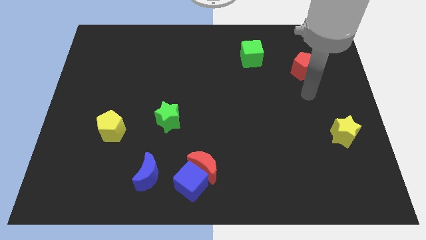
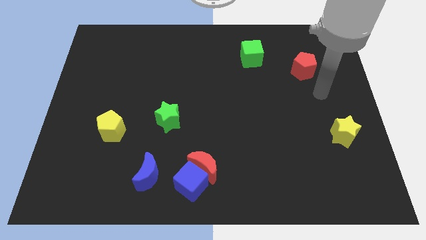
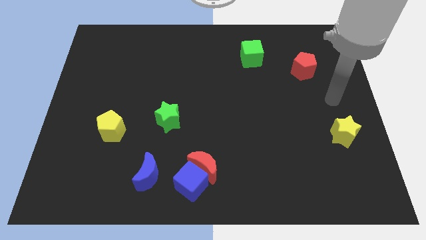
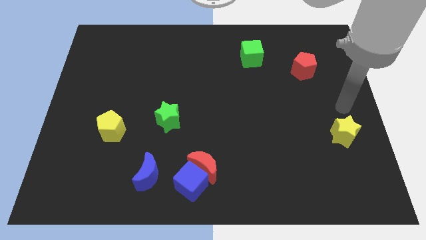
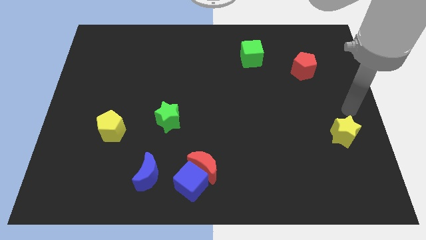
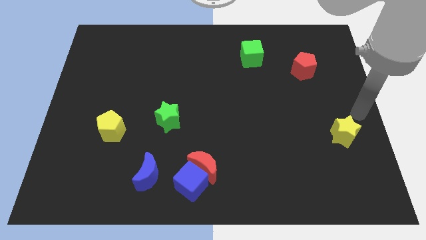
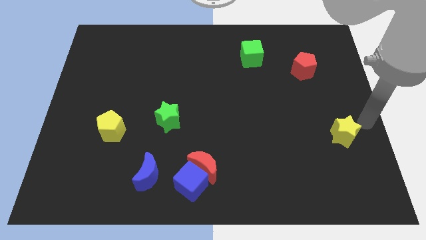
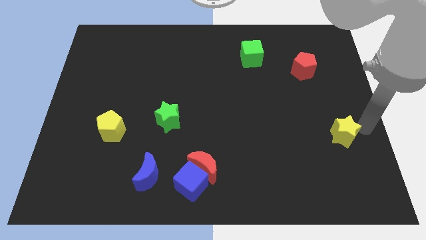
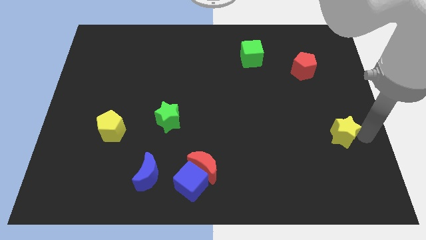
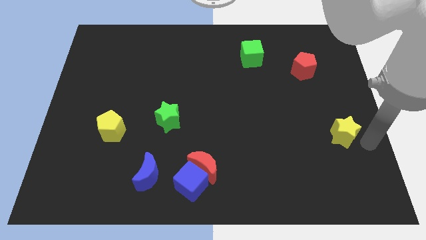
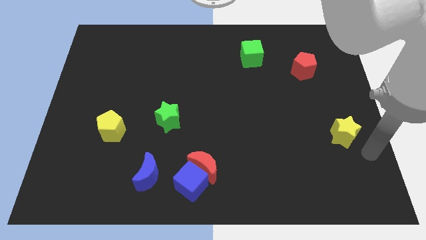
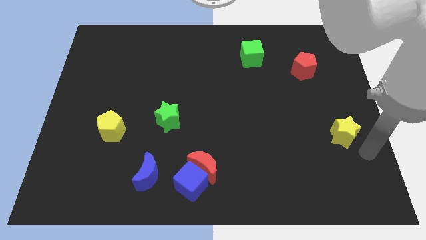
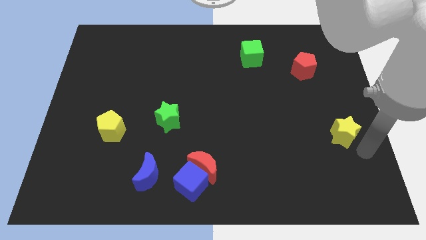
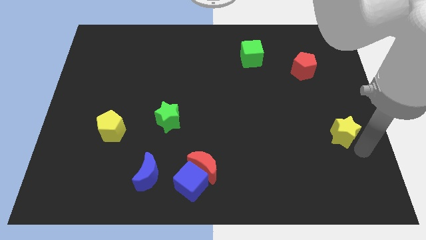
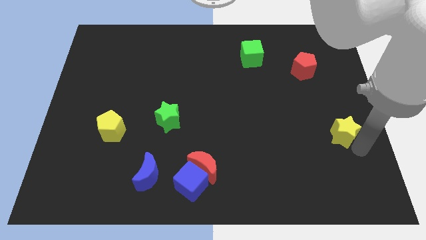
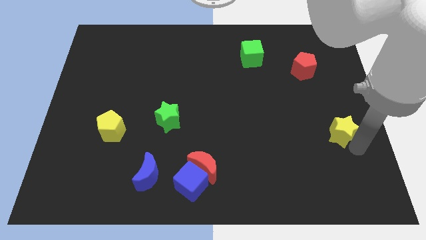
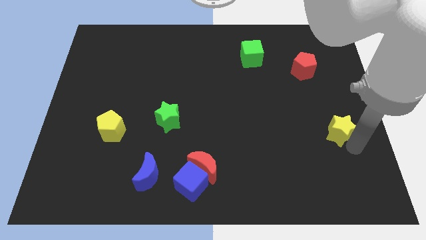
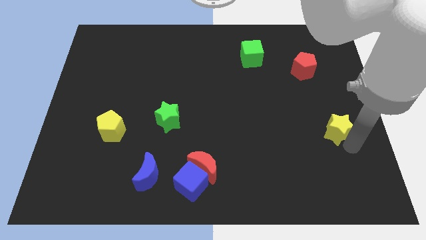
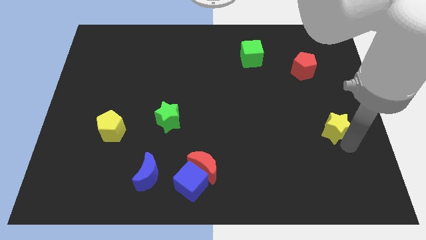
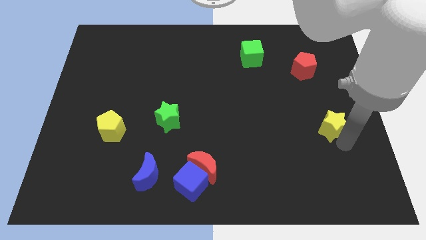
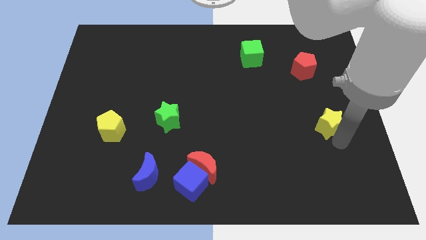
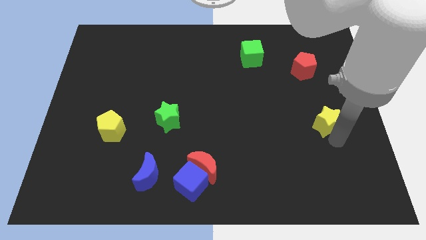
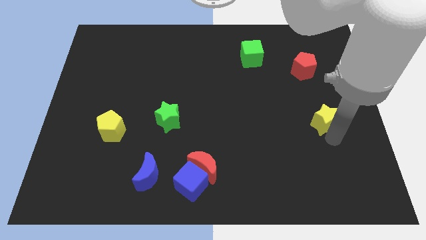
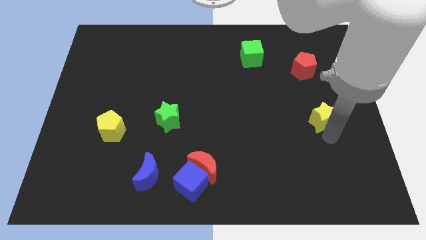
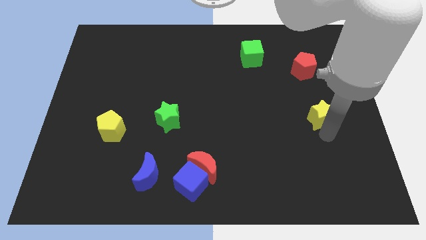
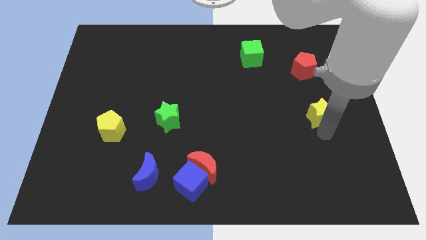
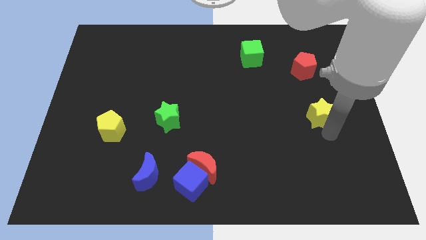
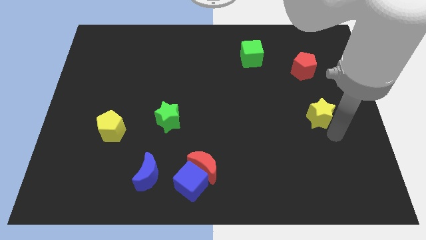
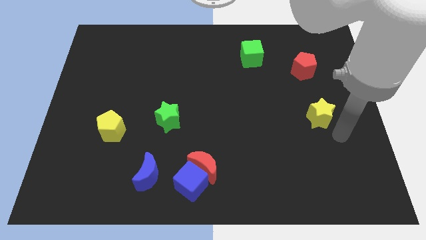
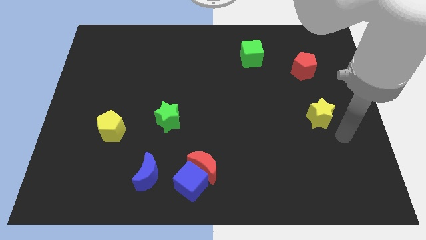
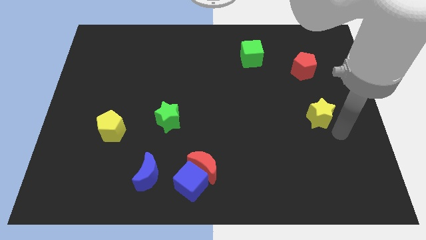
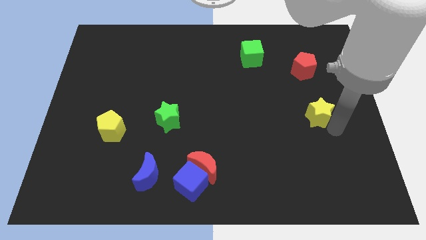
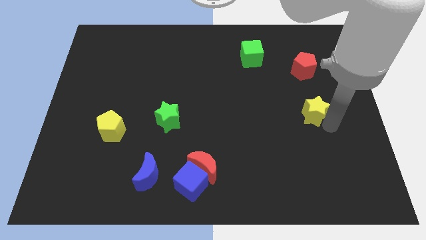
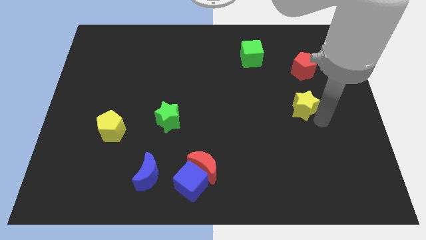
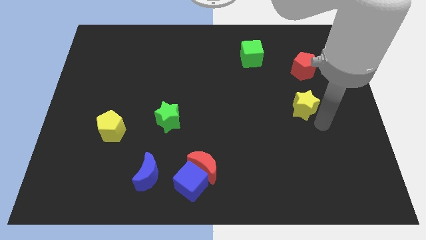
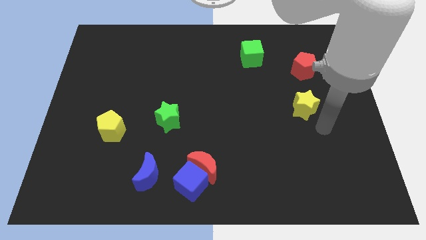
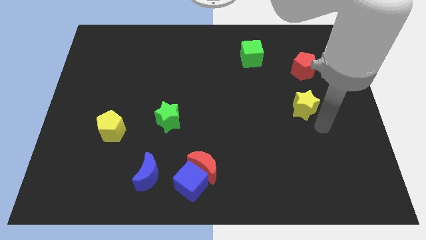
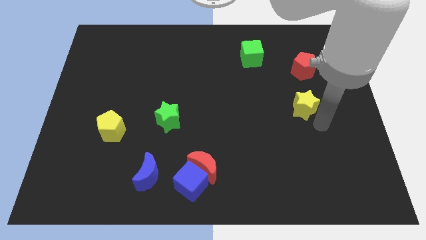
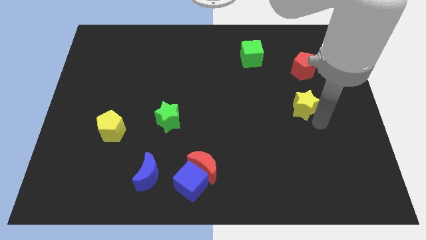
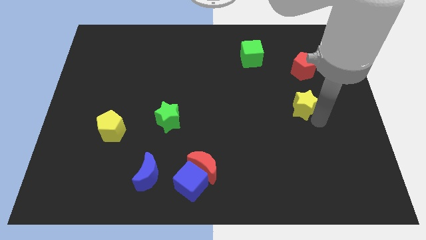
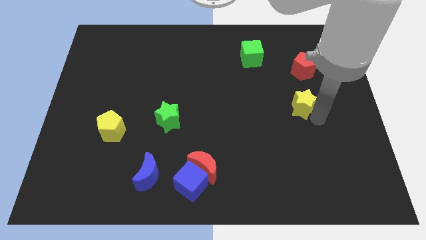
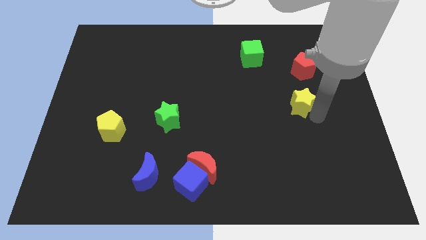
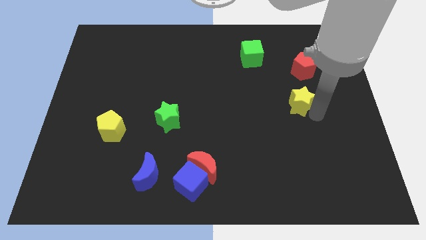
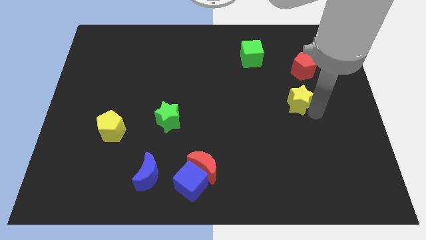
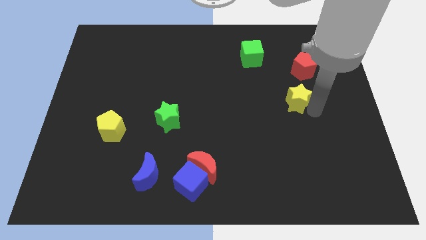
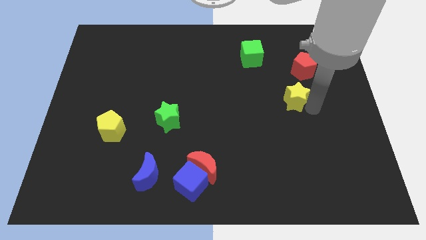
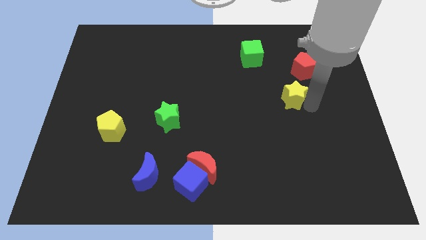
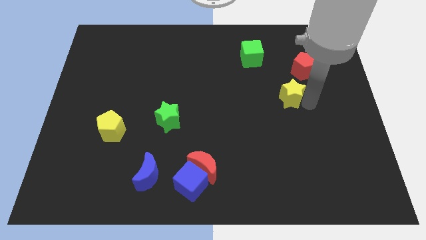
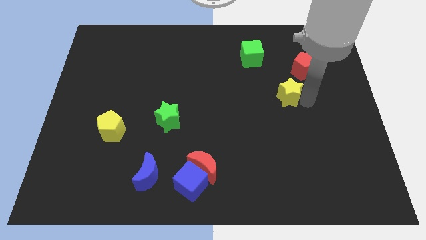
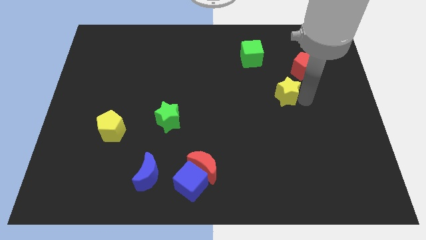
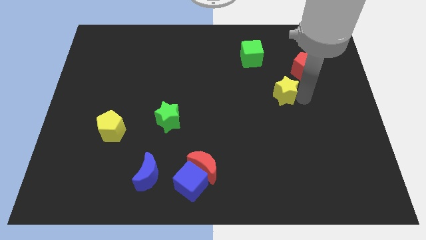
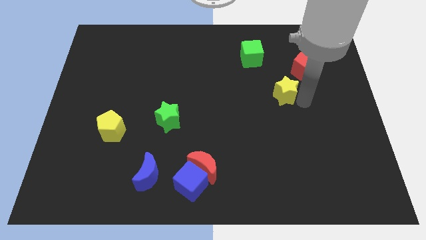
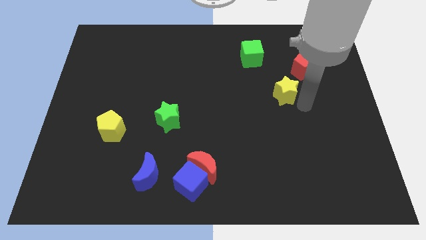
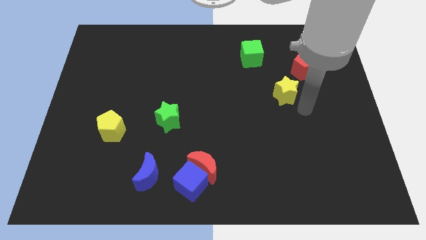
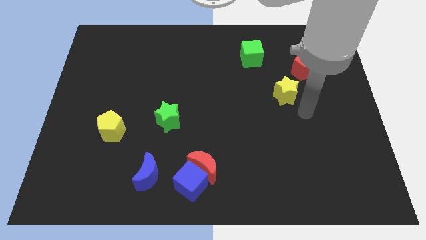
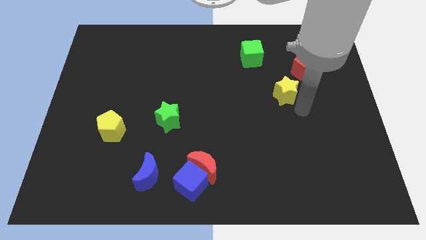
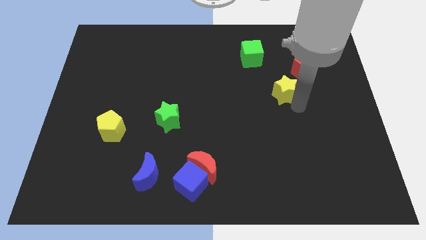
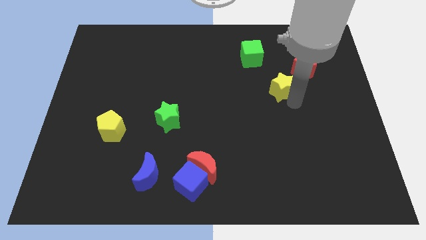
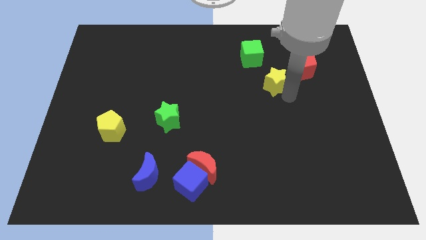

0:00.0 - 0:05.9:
slide the yellow star upwards and to the left

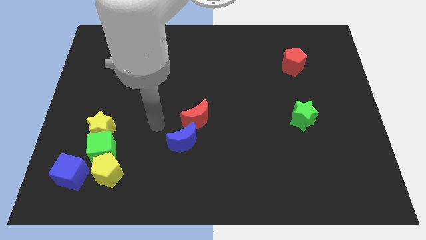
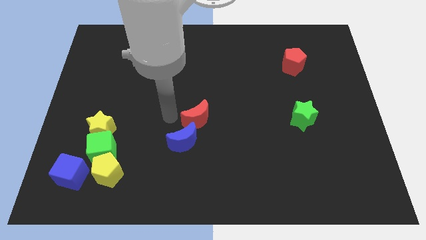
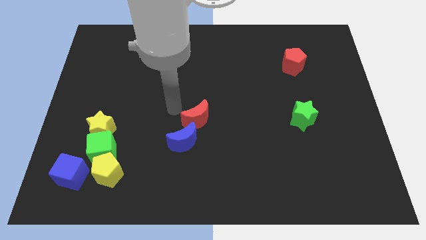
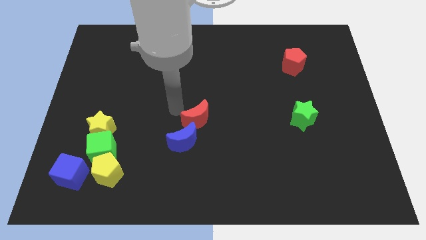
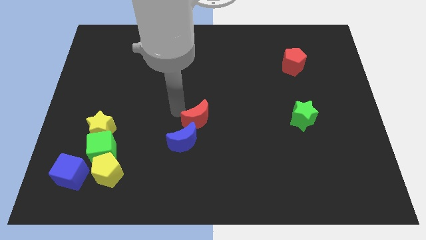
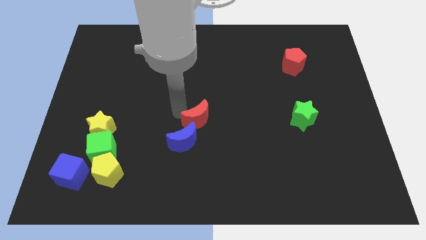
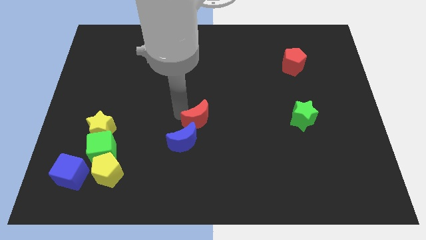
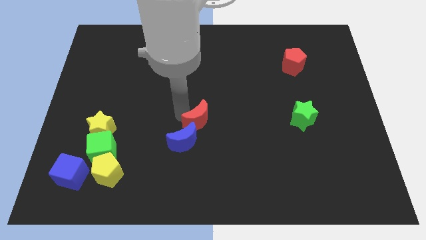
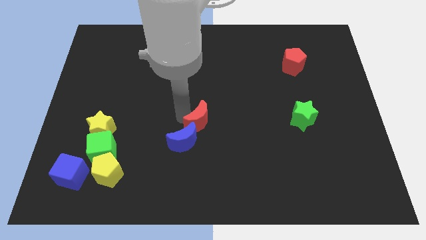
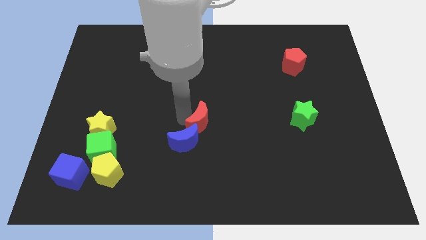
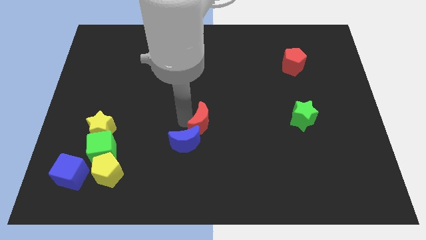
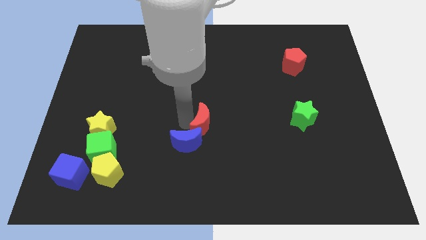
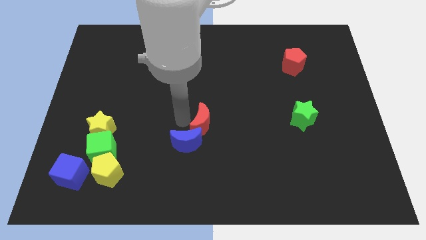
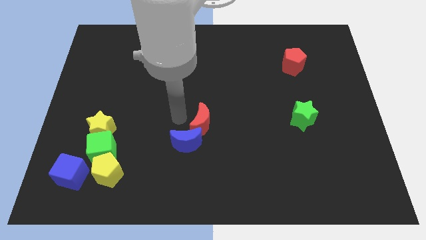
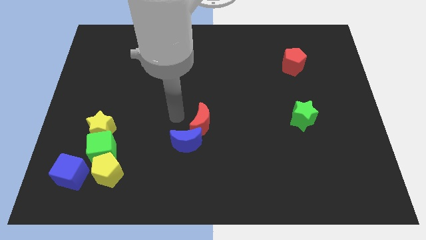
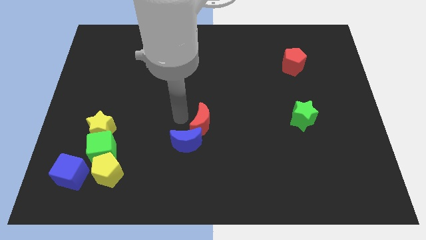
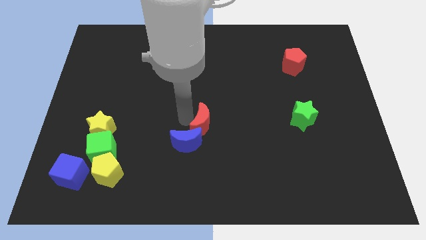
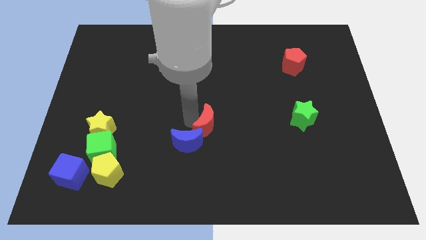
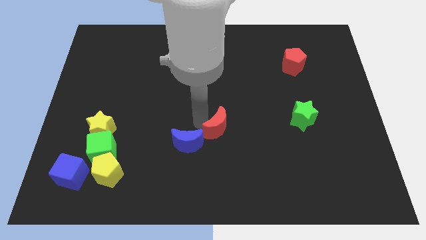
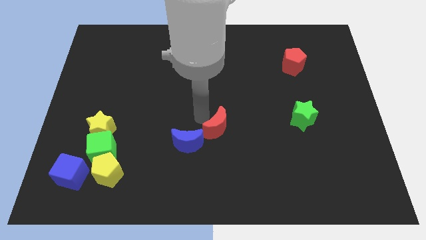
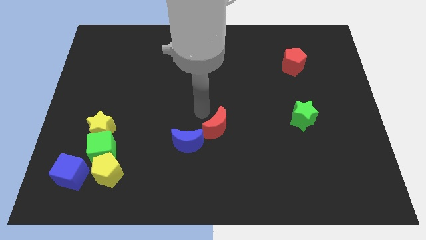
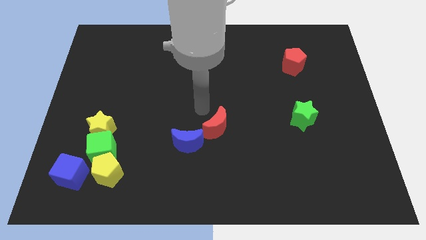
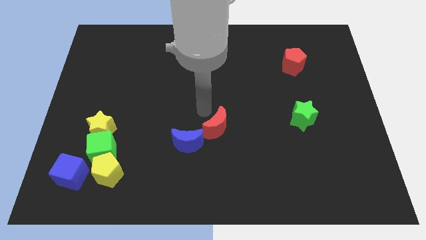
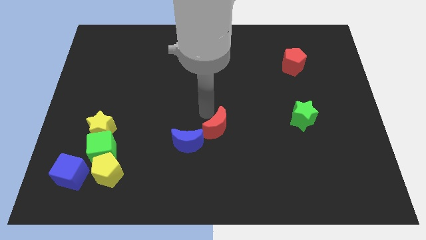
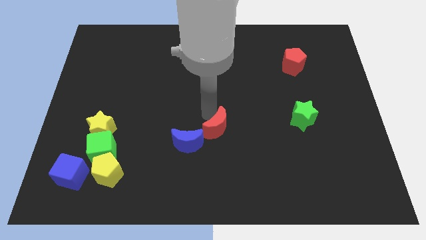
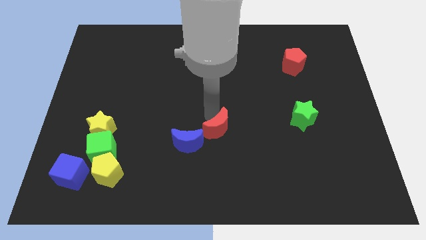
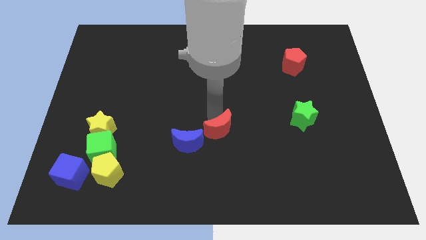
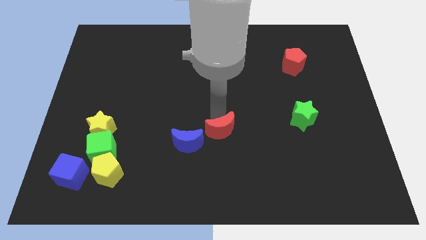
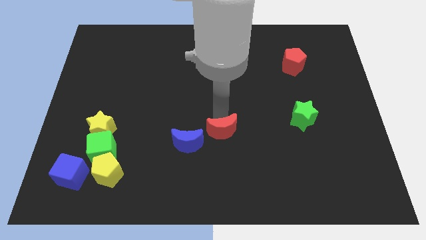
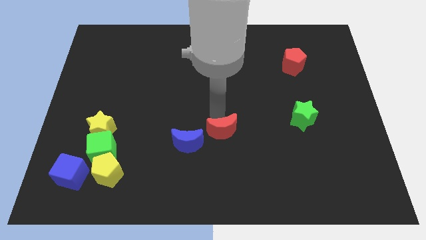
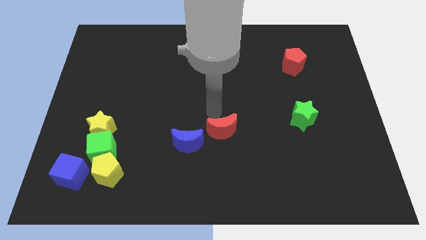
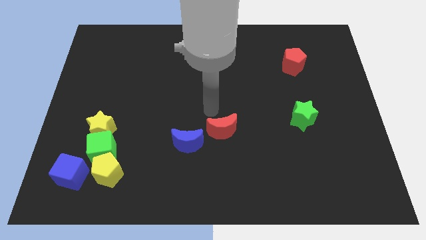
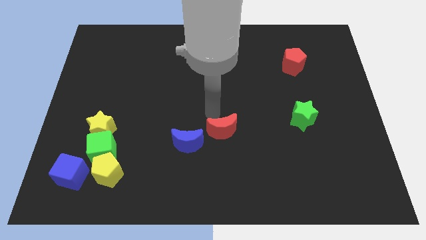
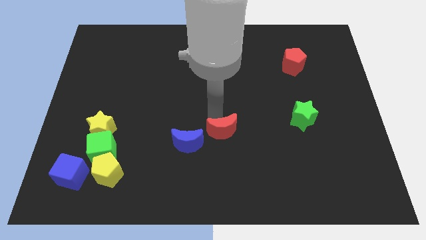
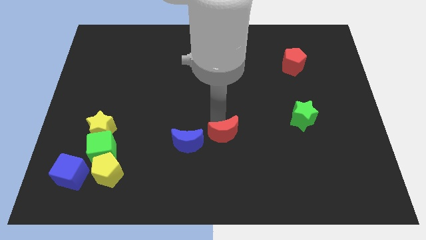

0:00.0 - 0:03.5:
slightly slide the red moon down and right diagonally
